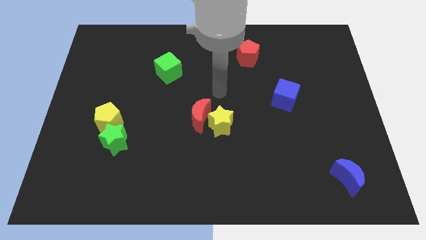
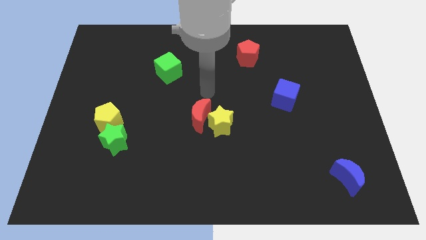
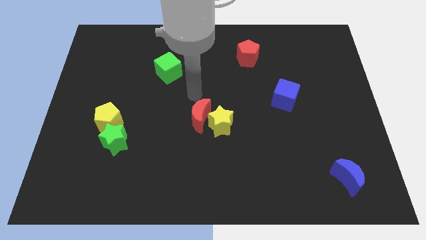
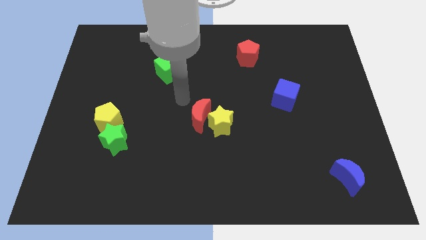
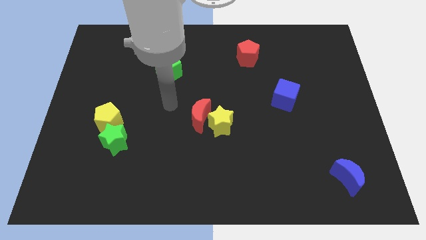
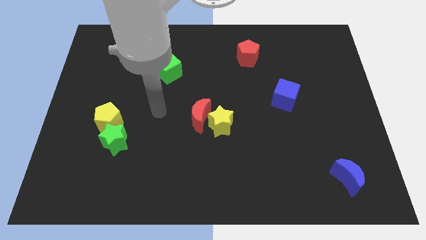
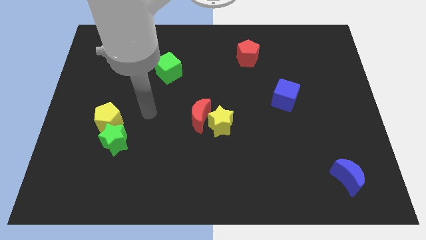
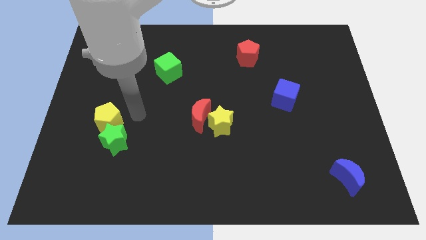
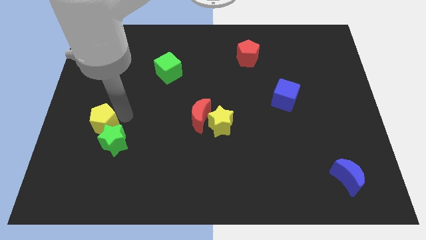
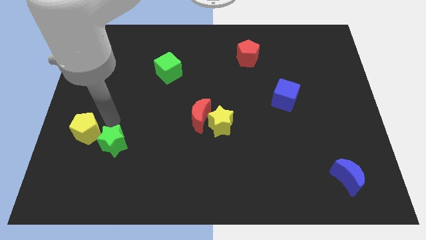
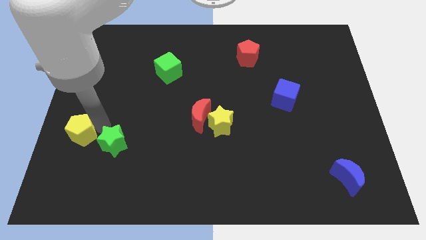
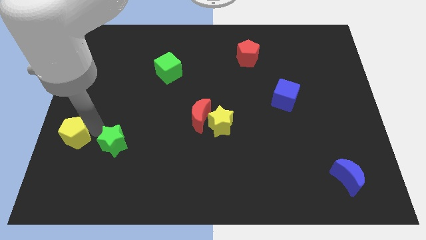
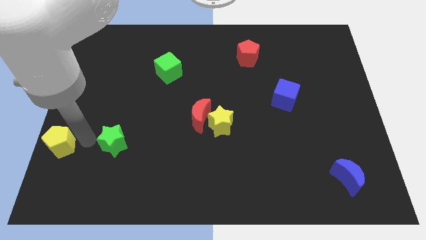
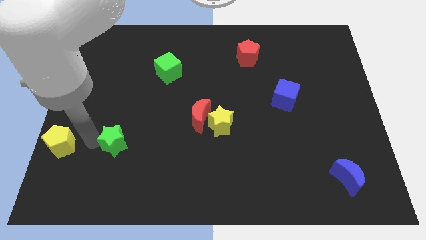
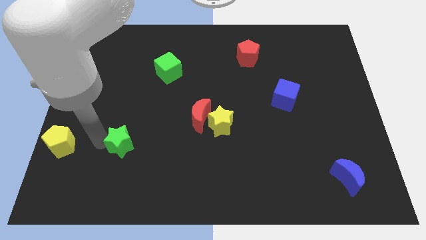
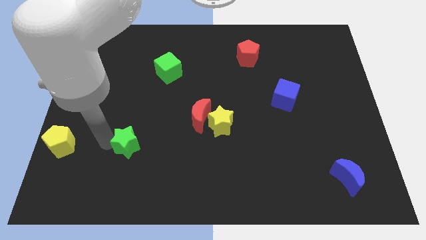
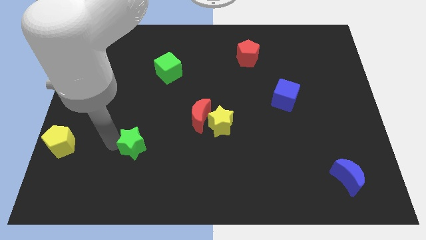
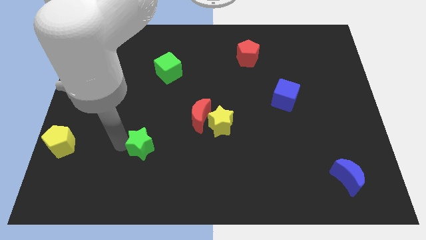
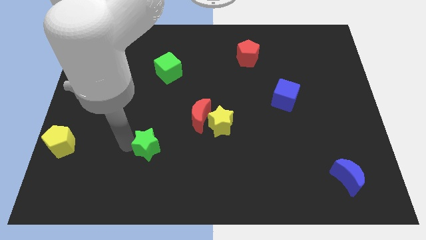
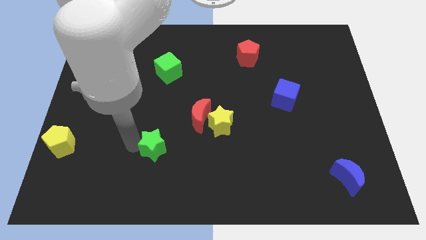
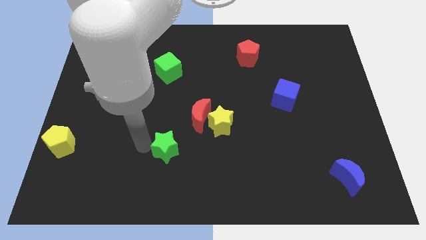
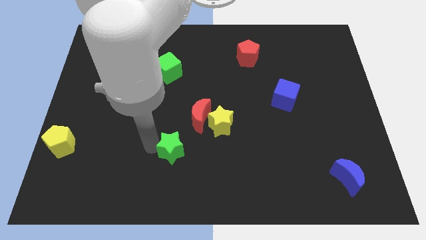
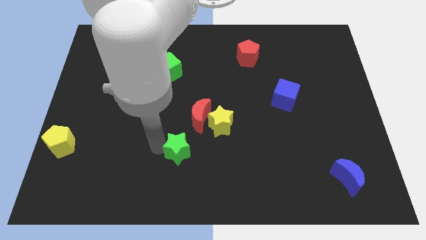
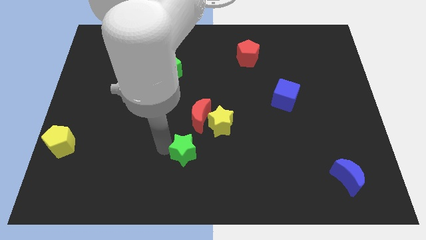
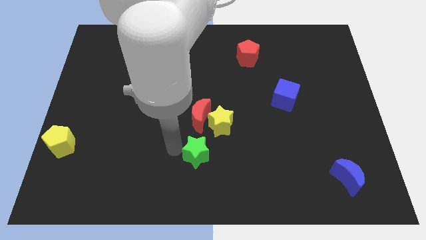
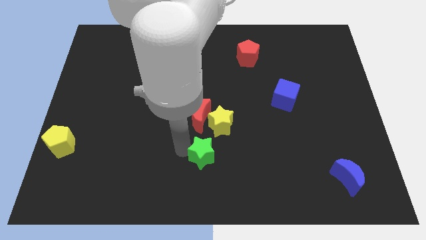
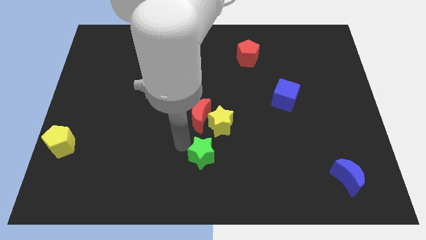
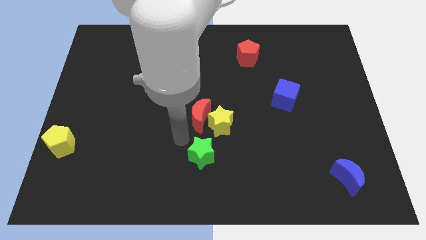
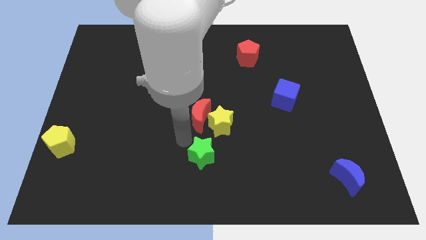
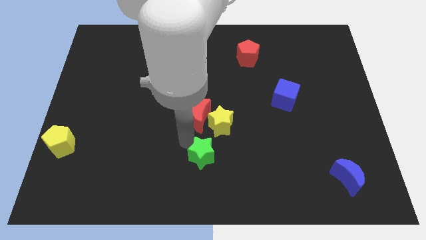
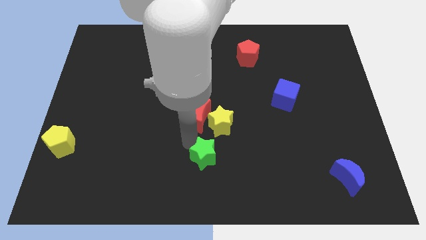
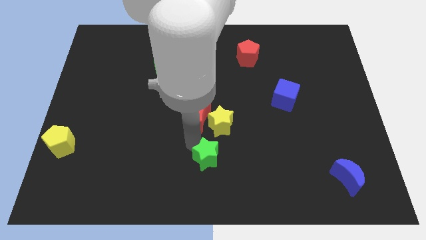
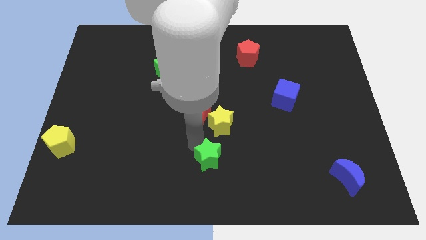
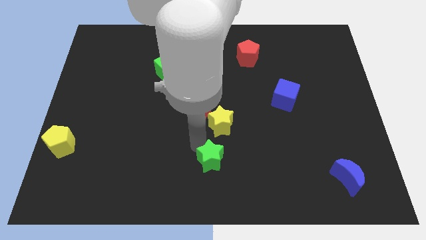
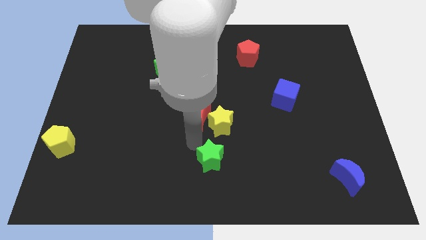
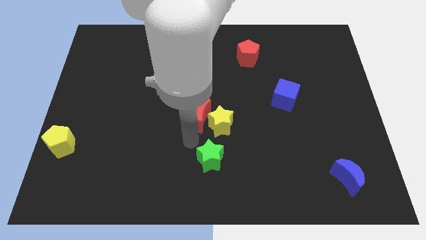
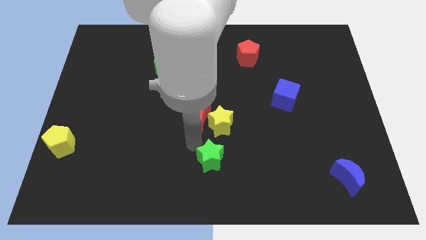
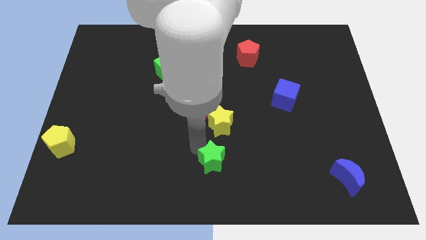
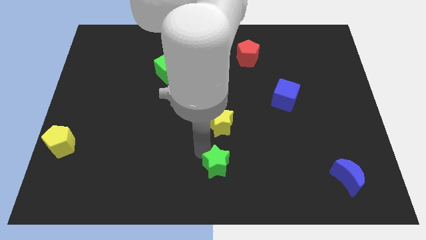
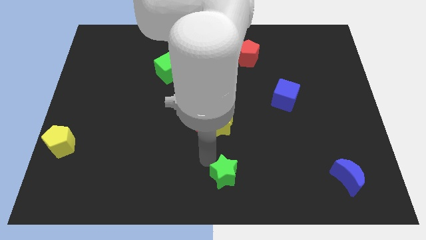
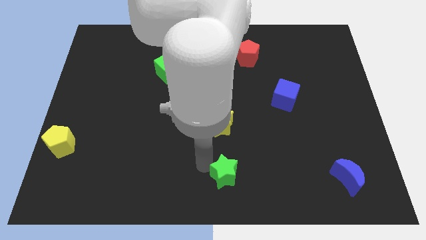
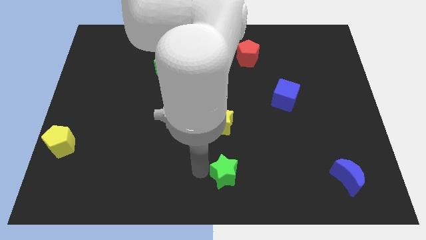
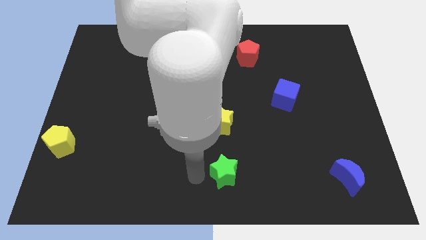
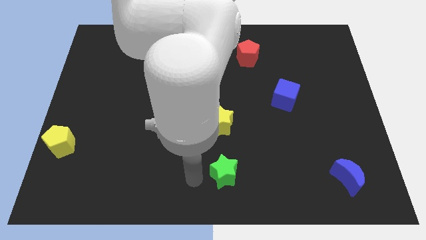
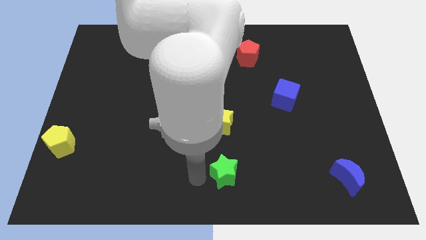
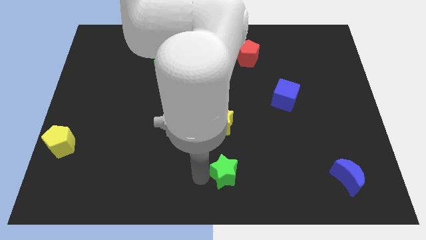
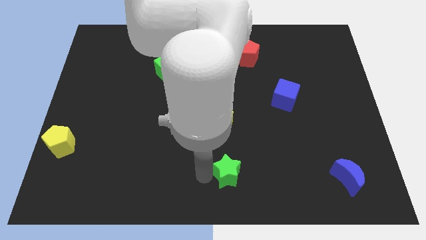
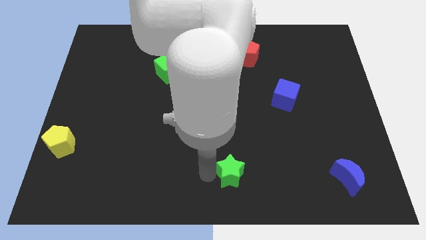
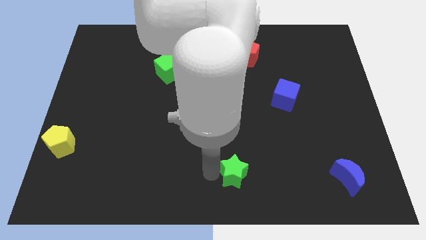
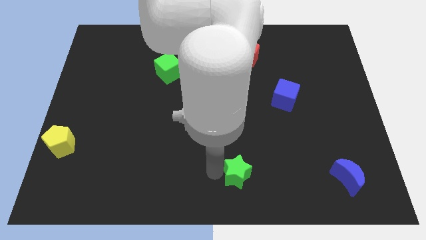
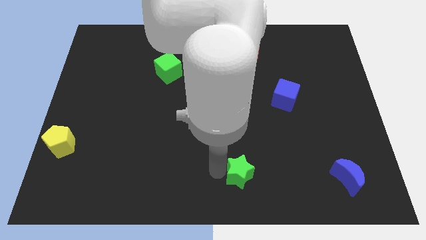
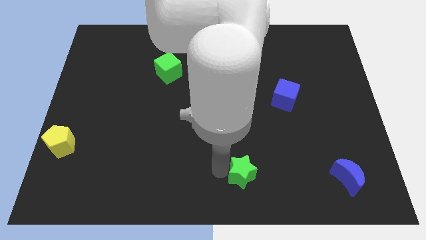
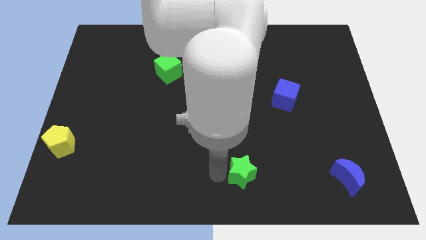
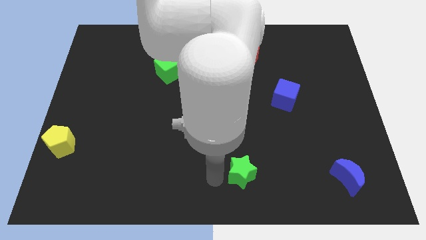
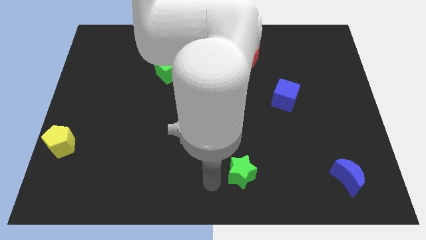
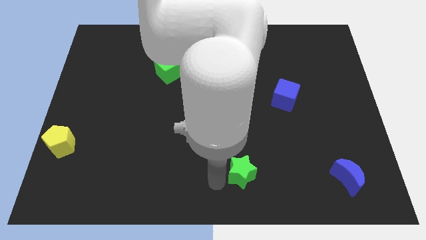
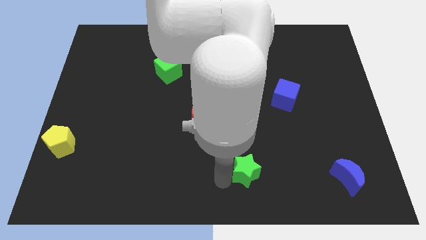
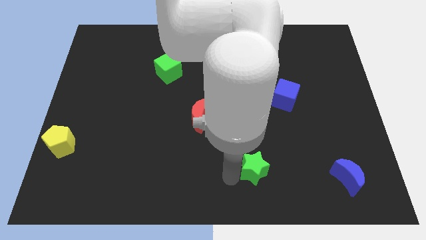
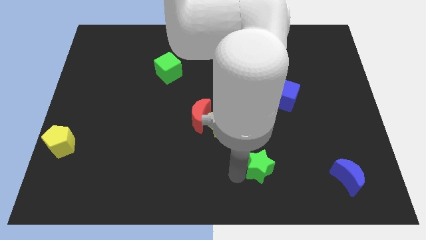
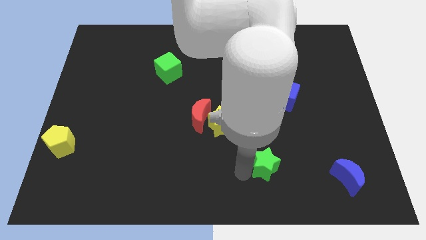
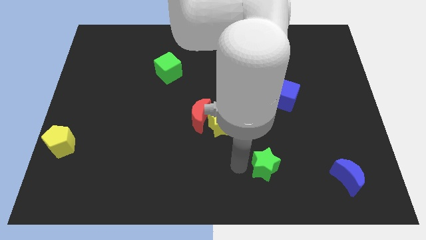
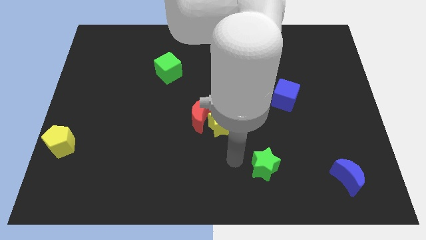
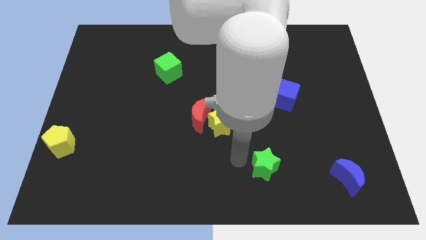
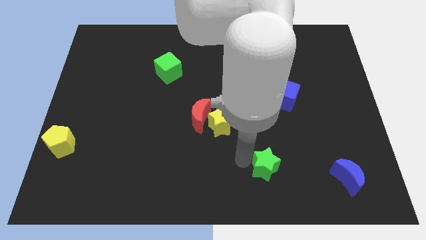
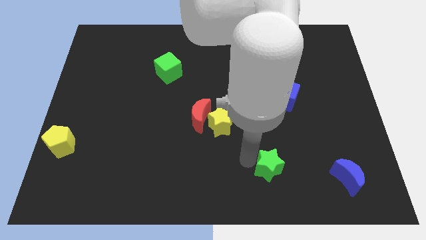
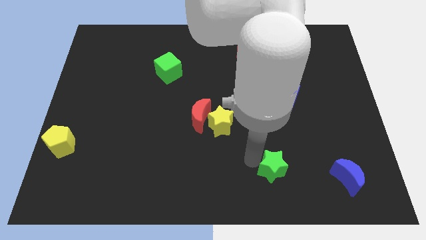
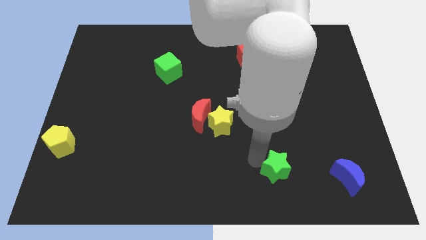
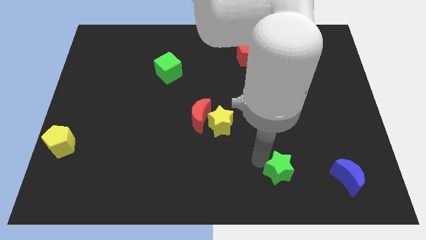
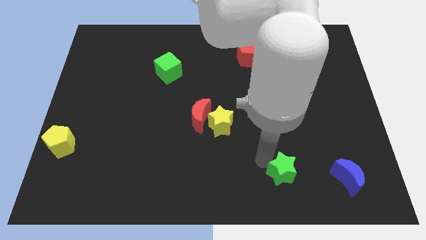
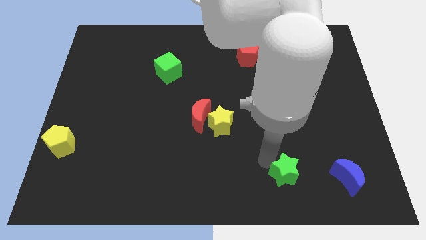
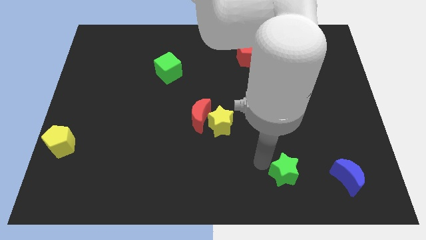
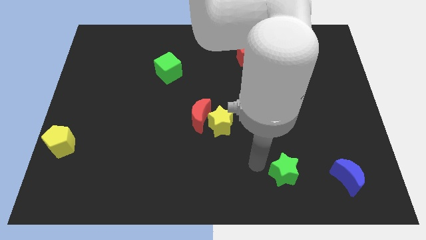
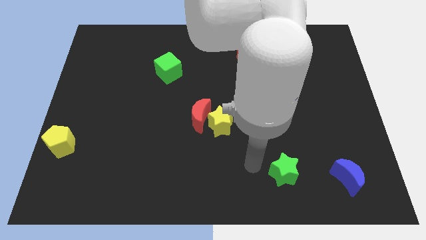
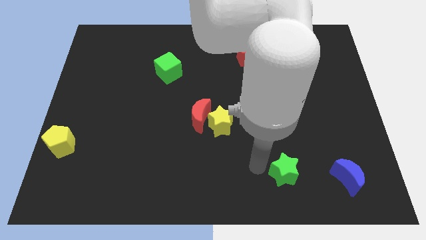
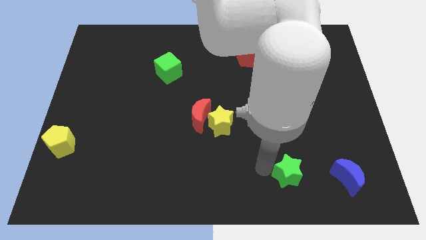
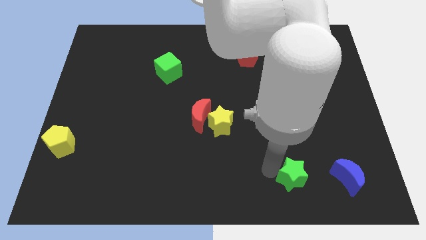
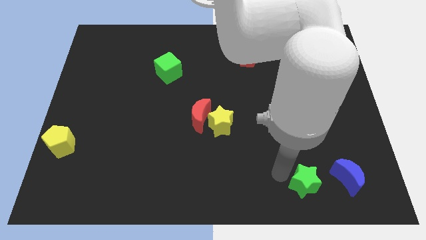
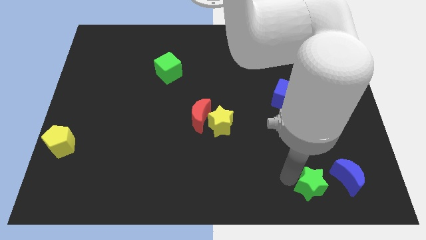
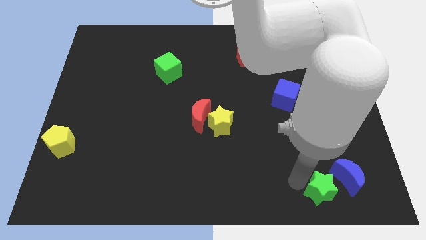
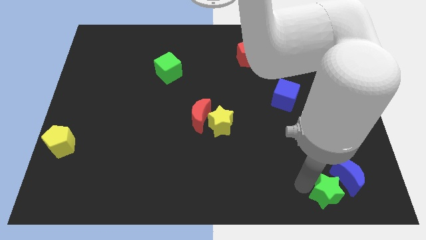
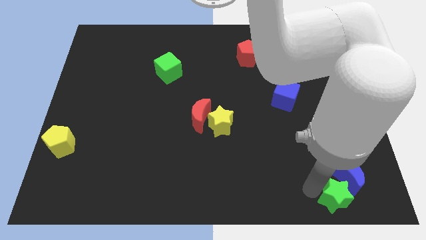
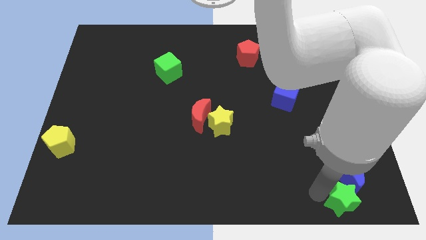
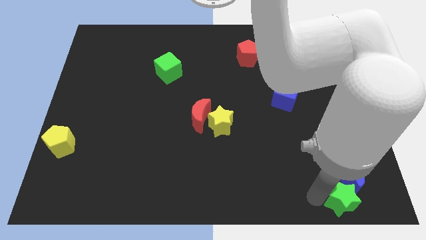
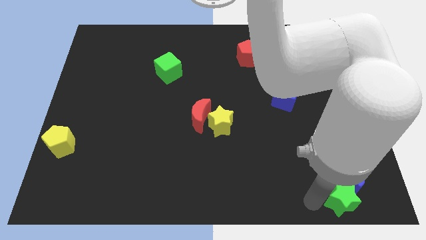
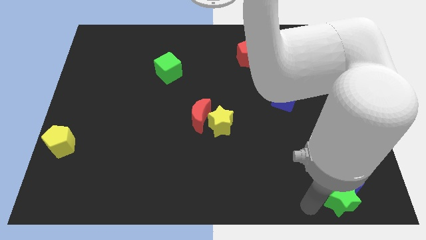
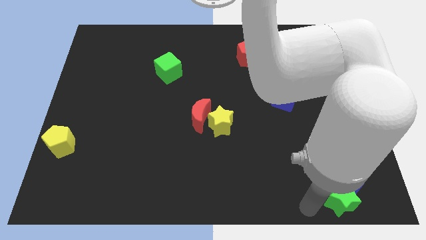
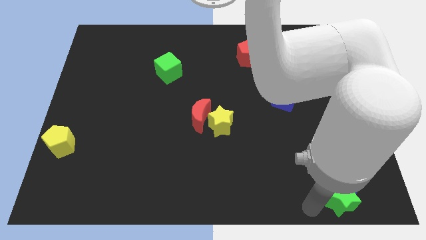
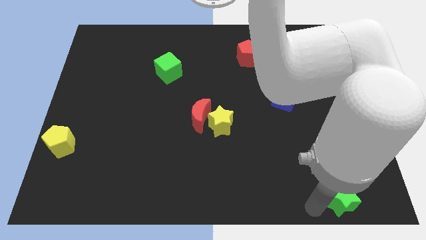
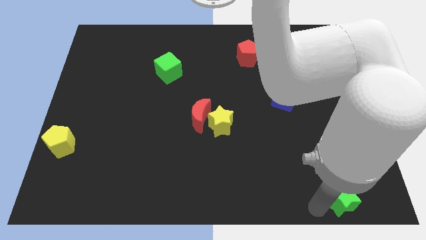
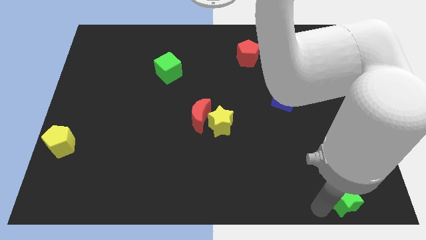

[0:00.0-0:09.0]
slide the green star to the lower right corner
